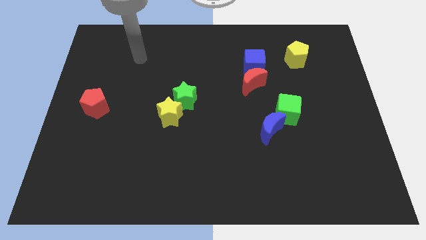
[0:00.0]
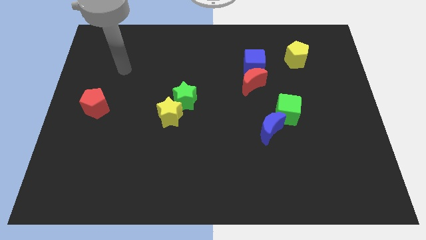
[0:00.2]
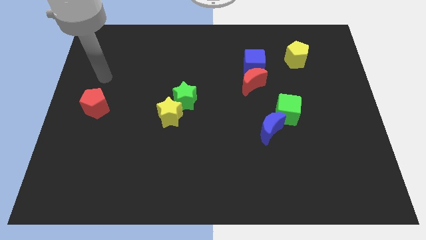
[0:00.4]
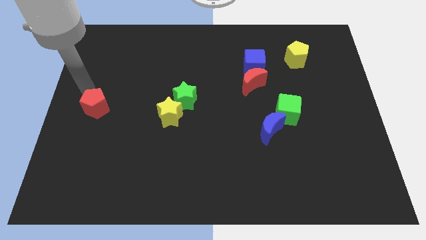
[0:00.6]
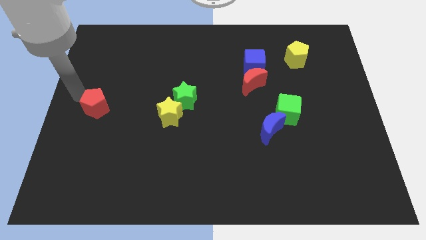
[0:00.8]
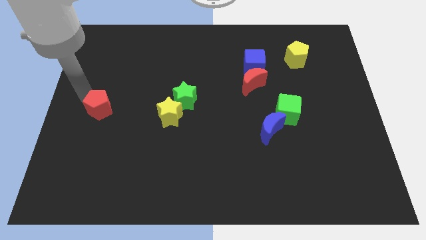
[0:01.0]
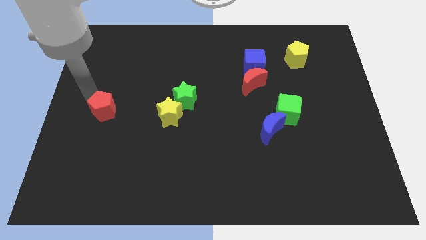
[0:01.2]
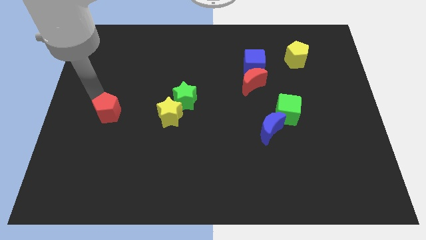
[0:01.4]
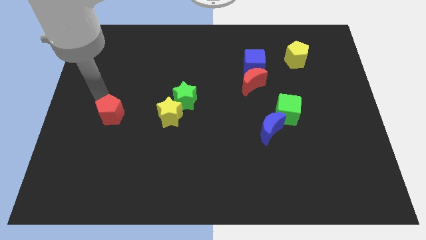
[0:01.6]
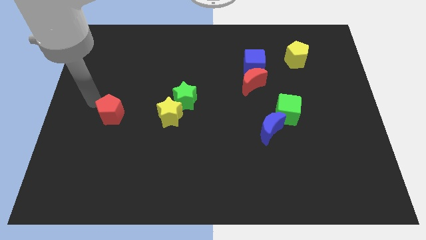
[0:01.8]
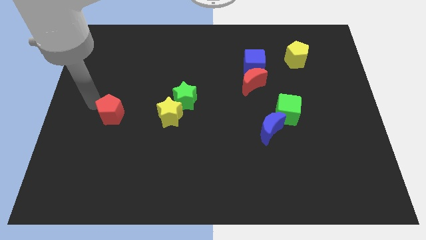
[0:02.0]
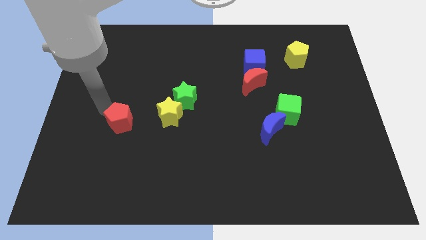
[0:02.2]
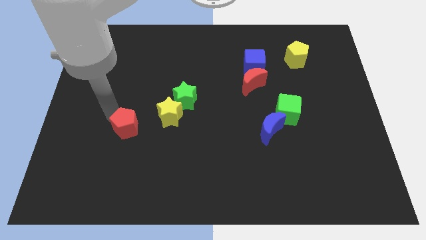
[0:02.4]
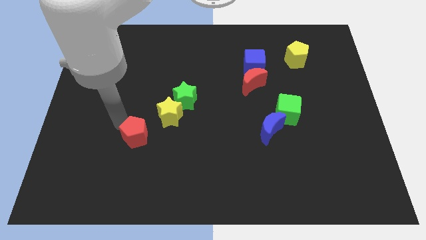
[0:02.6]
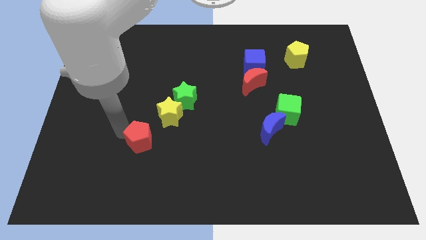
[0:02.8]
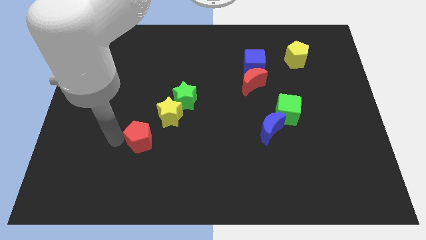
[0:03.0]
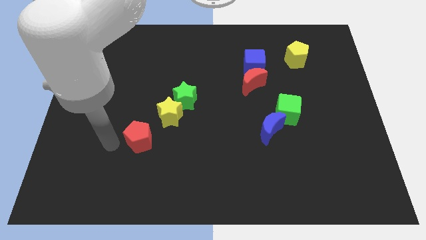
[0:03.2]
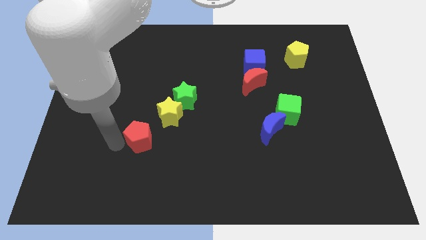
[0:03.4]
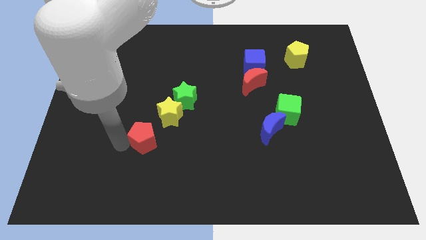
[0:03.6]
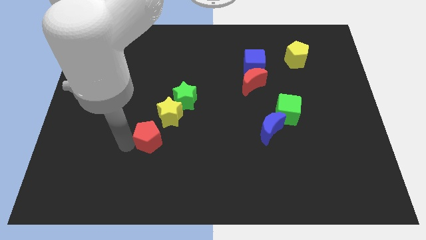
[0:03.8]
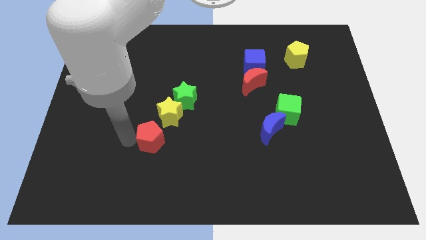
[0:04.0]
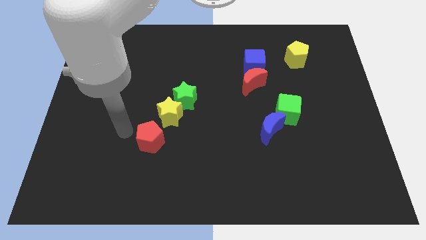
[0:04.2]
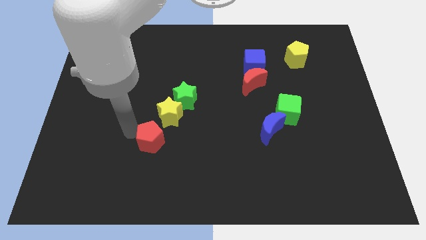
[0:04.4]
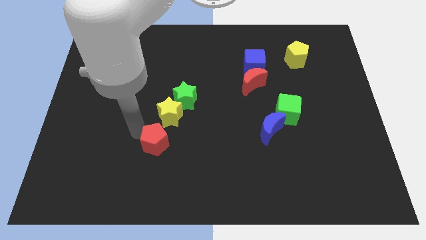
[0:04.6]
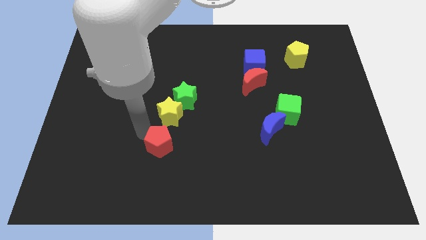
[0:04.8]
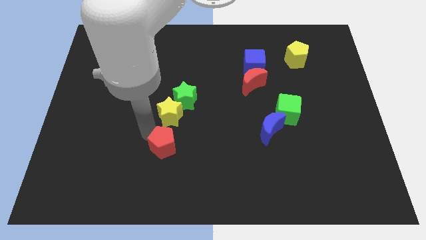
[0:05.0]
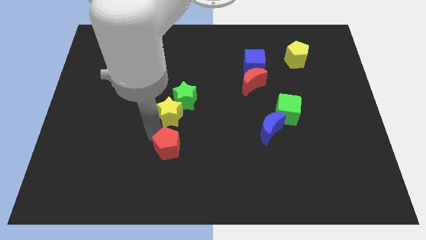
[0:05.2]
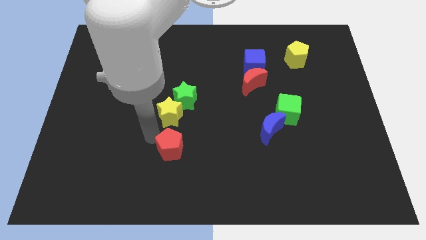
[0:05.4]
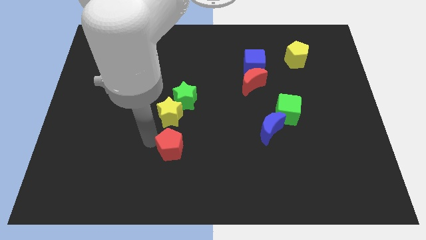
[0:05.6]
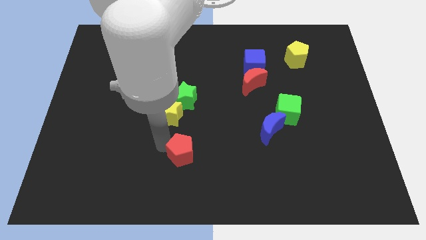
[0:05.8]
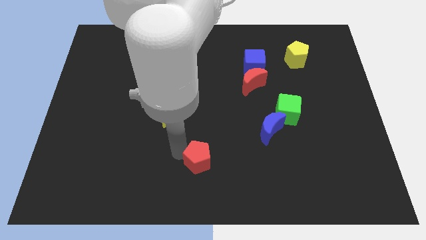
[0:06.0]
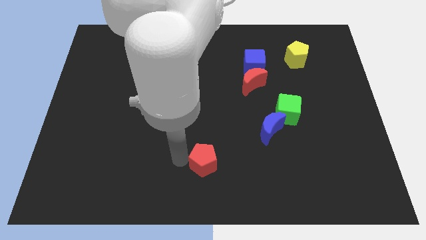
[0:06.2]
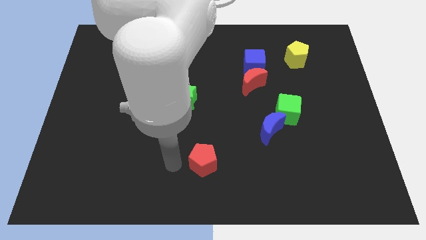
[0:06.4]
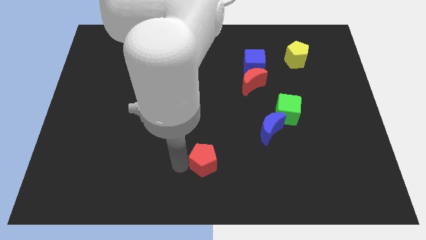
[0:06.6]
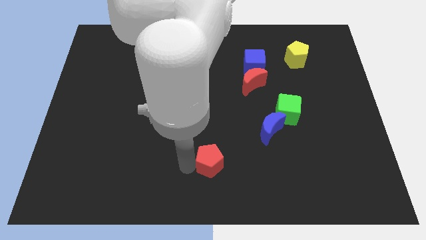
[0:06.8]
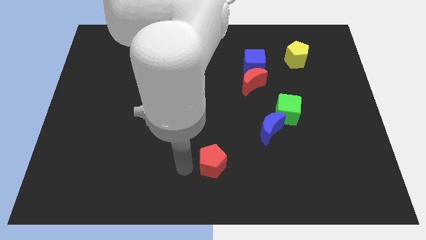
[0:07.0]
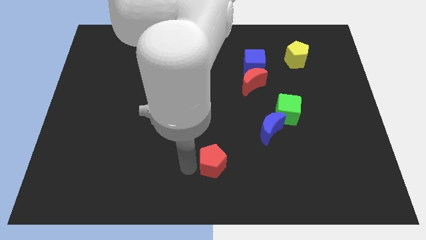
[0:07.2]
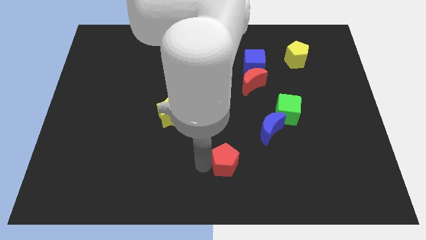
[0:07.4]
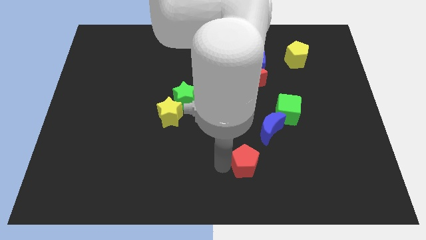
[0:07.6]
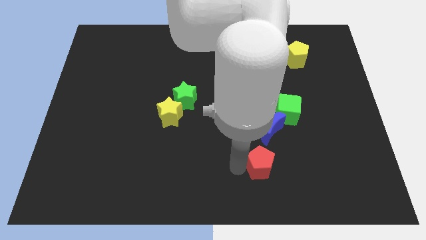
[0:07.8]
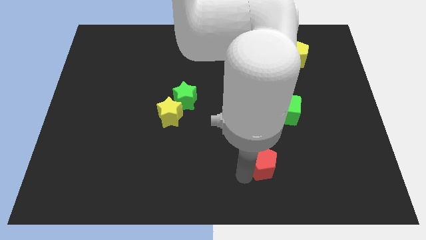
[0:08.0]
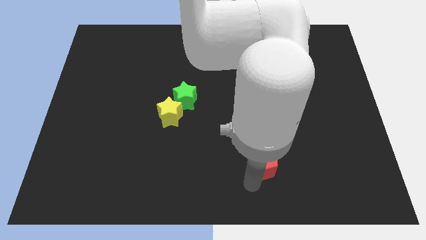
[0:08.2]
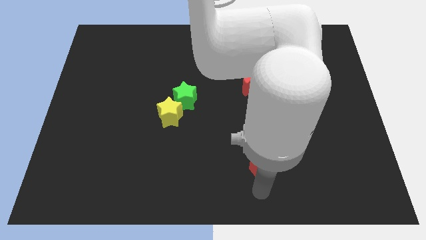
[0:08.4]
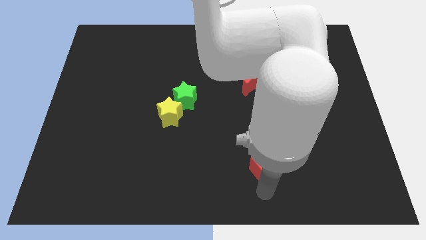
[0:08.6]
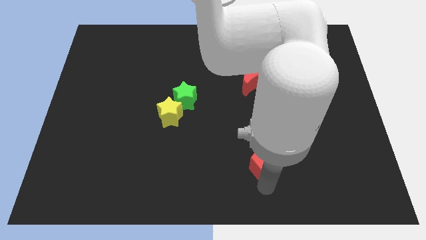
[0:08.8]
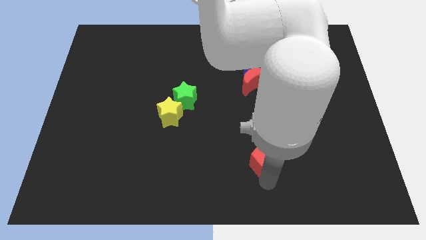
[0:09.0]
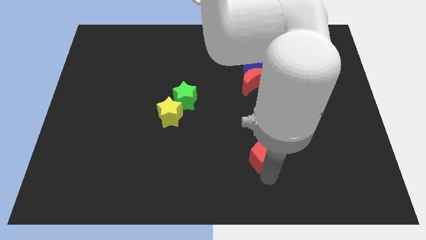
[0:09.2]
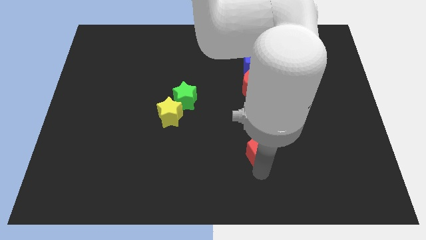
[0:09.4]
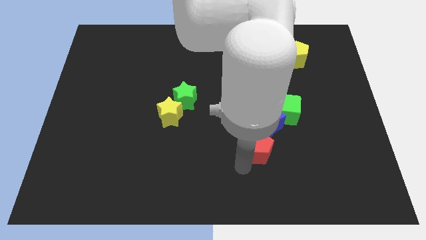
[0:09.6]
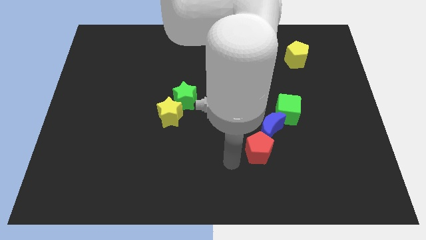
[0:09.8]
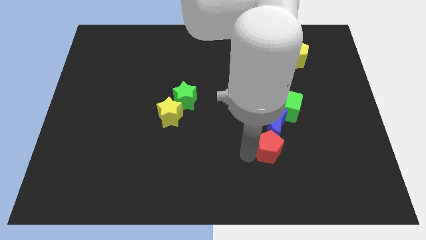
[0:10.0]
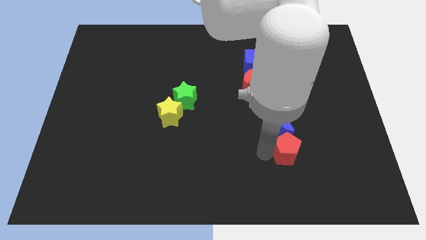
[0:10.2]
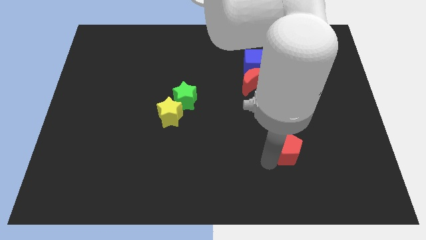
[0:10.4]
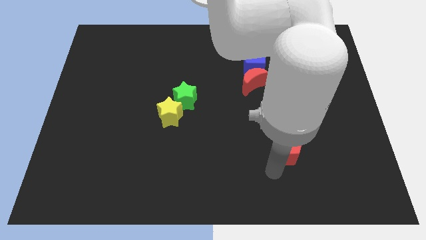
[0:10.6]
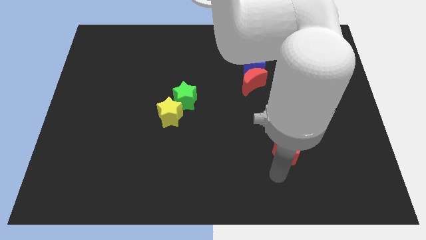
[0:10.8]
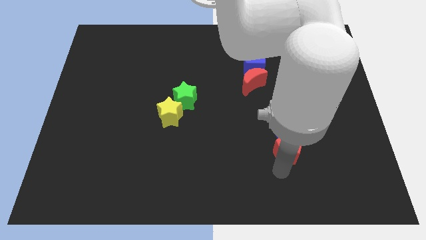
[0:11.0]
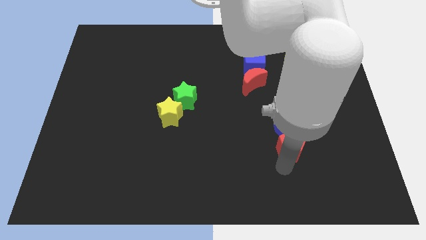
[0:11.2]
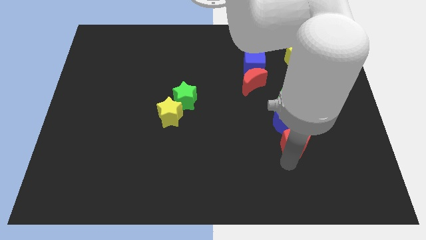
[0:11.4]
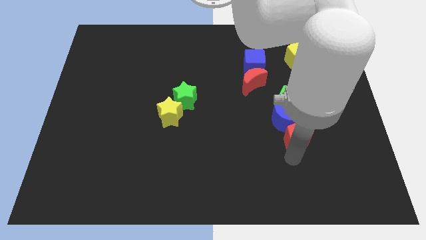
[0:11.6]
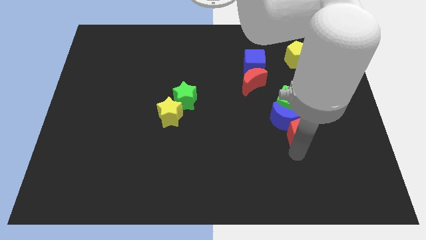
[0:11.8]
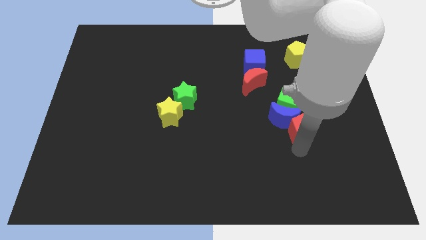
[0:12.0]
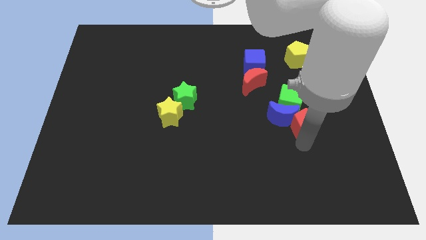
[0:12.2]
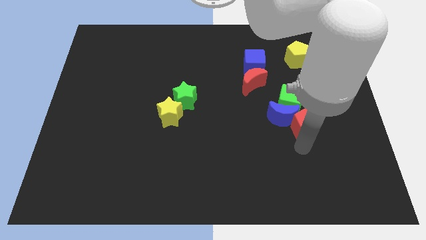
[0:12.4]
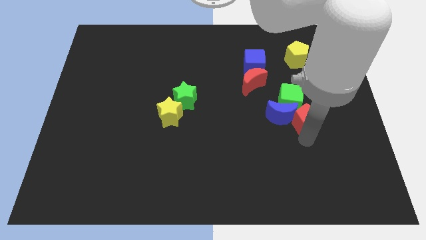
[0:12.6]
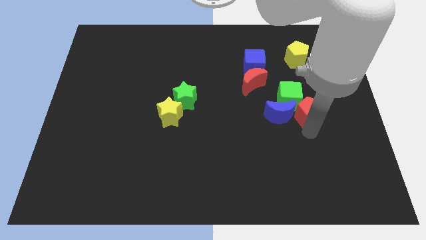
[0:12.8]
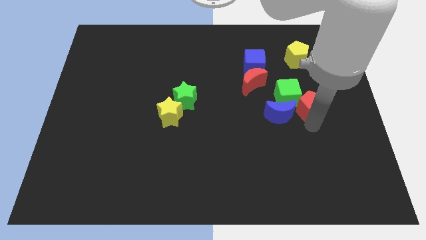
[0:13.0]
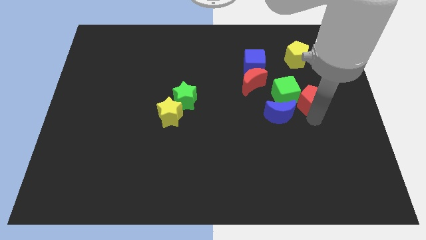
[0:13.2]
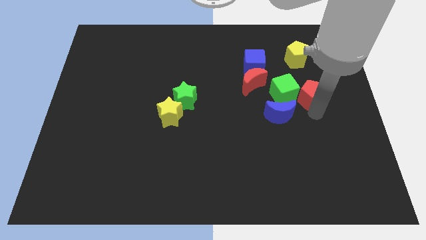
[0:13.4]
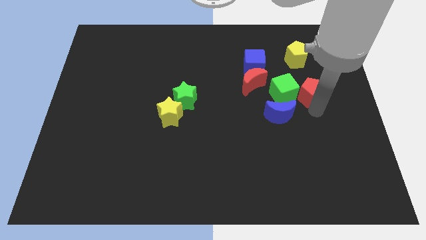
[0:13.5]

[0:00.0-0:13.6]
put the red pentagon to the top right side of the green cube
